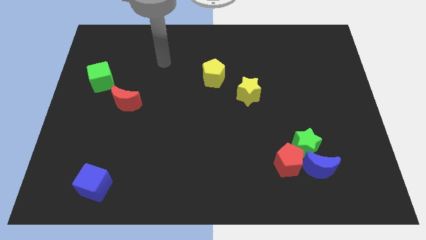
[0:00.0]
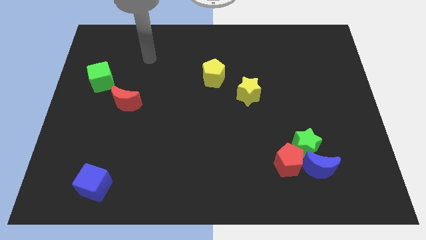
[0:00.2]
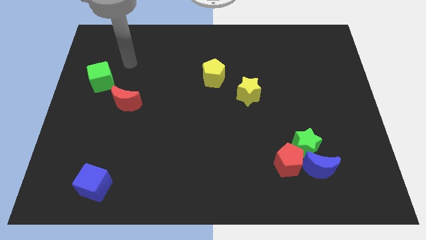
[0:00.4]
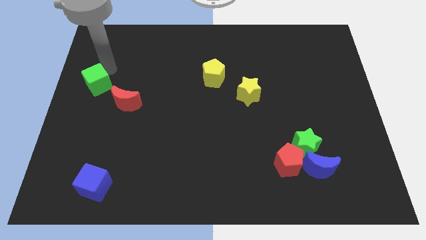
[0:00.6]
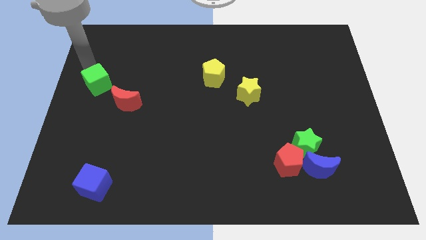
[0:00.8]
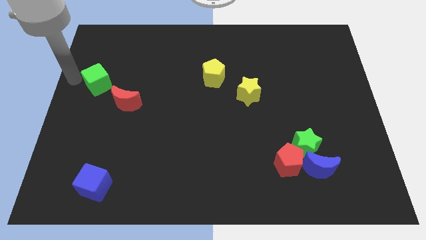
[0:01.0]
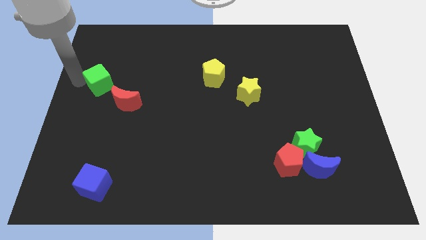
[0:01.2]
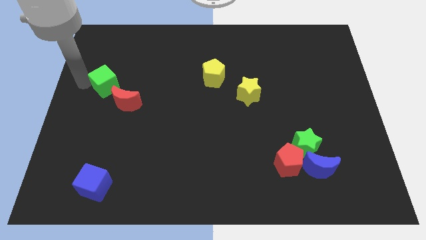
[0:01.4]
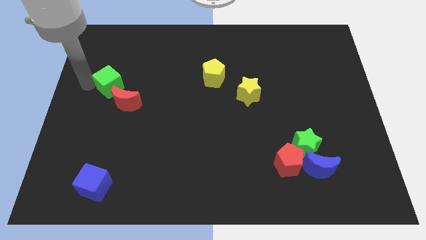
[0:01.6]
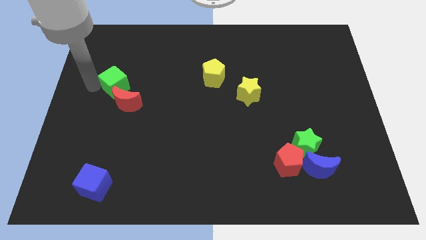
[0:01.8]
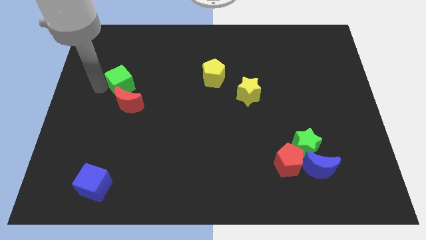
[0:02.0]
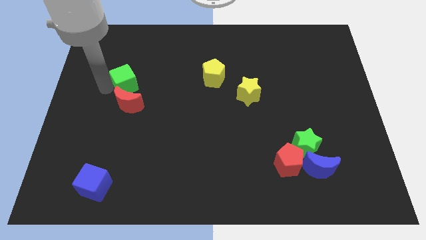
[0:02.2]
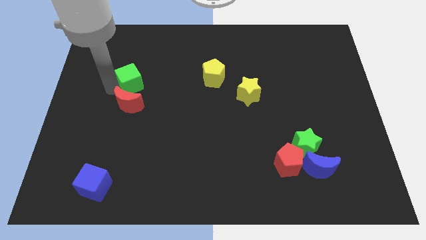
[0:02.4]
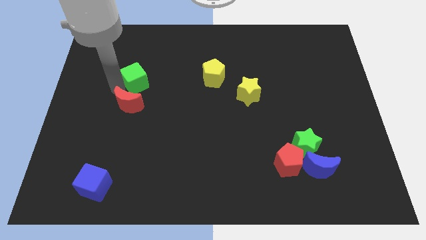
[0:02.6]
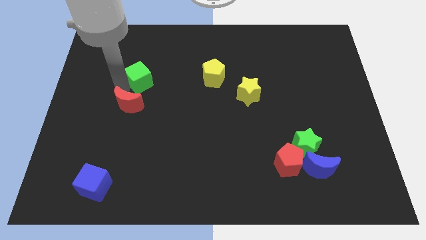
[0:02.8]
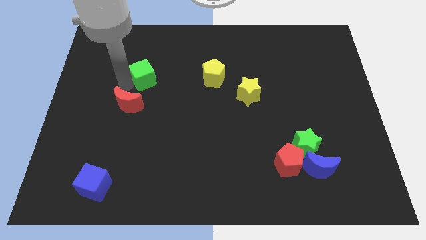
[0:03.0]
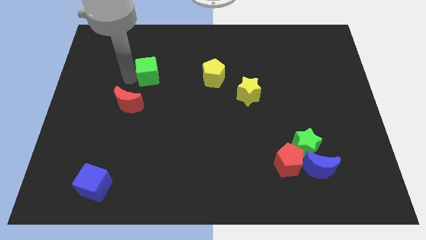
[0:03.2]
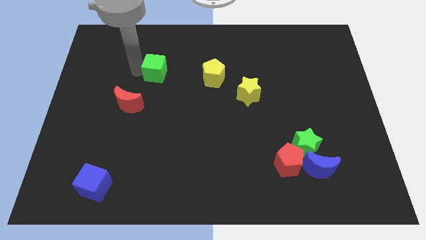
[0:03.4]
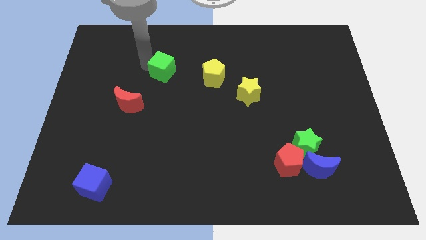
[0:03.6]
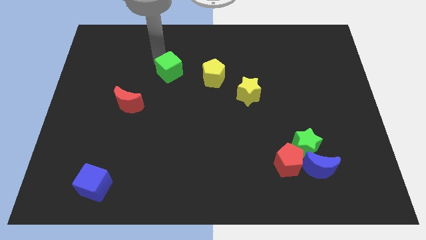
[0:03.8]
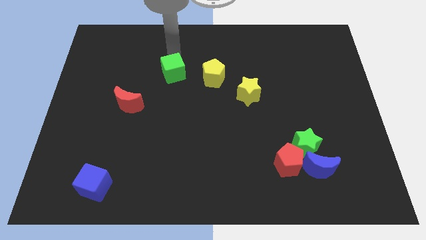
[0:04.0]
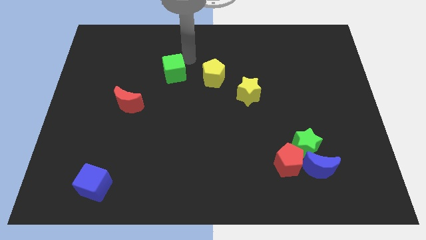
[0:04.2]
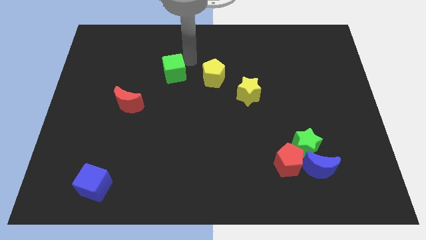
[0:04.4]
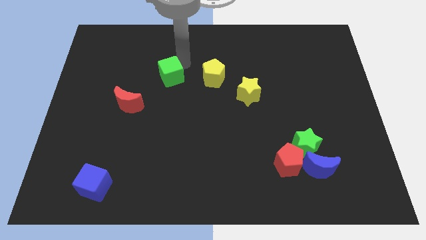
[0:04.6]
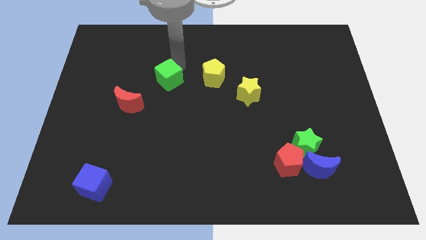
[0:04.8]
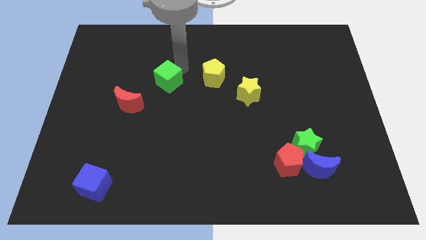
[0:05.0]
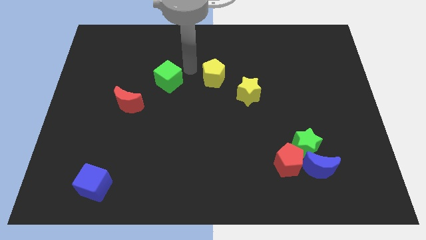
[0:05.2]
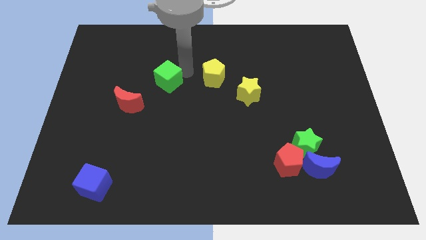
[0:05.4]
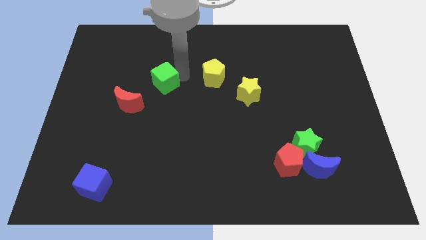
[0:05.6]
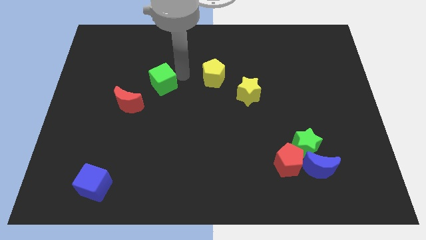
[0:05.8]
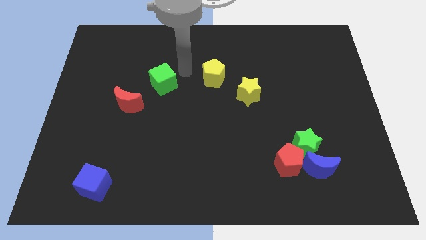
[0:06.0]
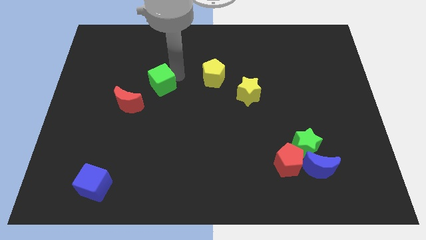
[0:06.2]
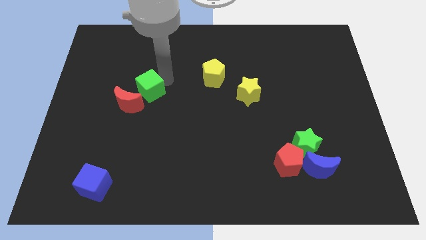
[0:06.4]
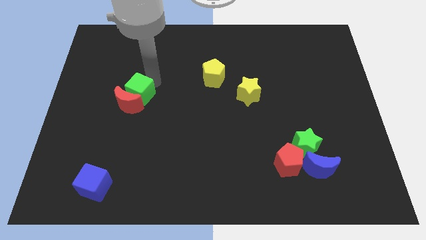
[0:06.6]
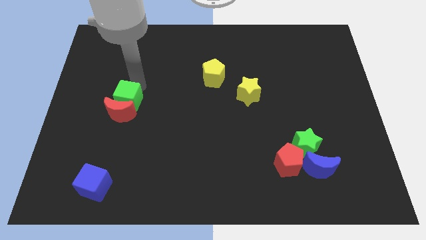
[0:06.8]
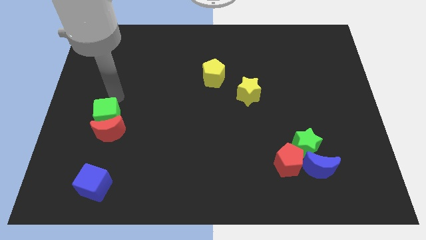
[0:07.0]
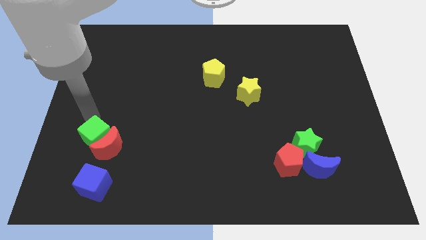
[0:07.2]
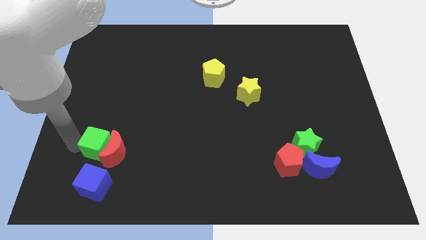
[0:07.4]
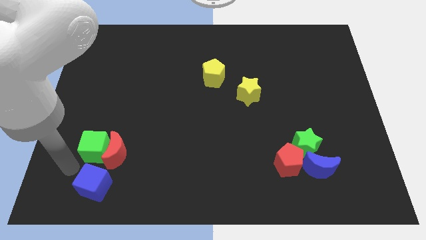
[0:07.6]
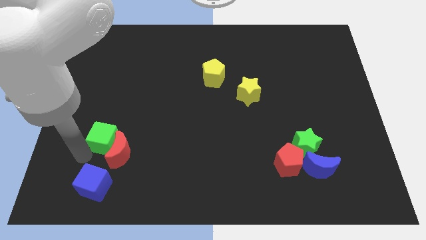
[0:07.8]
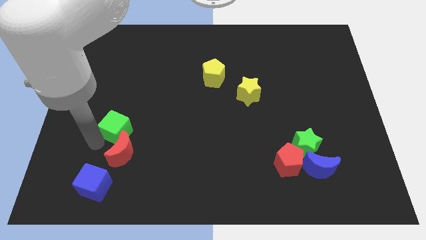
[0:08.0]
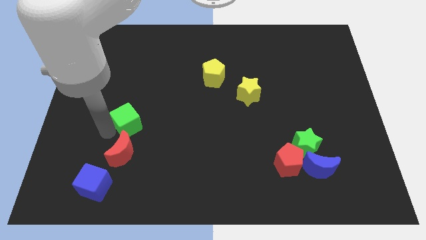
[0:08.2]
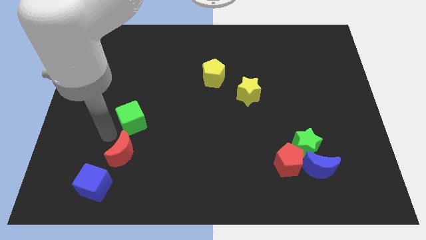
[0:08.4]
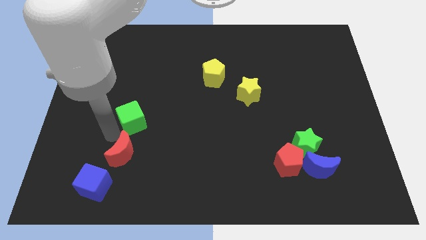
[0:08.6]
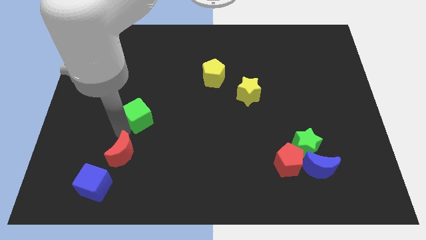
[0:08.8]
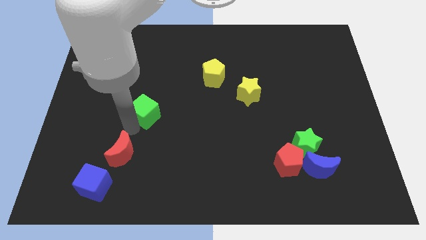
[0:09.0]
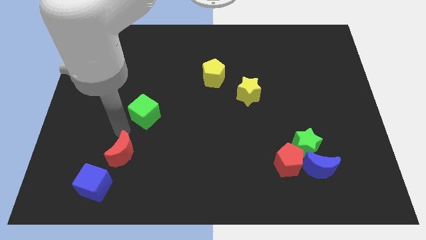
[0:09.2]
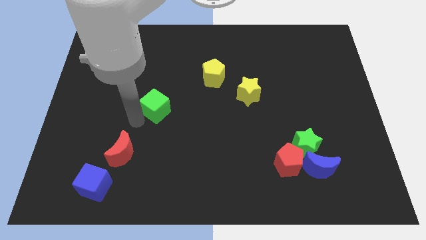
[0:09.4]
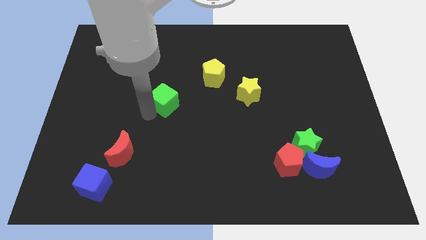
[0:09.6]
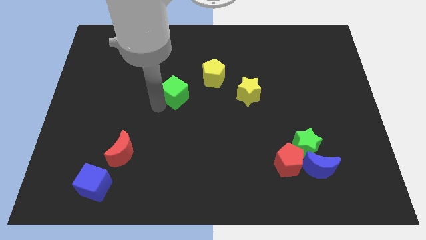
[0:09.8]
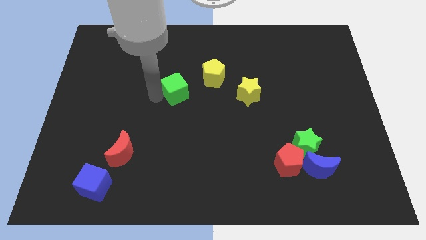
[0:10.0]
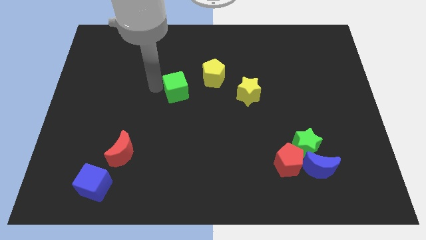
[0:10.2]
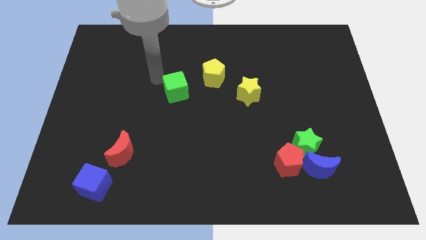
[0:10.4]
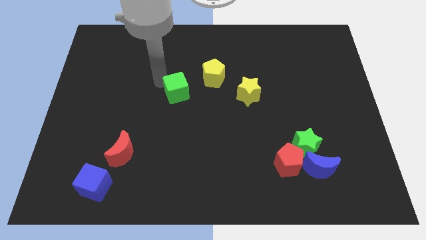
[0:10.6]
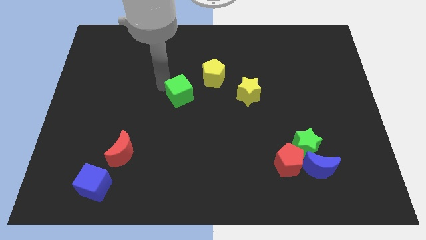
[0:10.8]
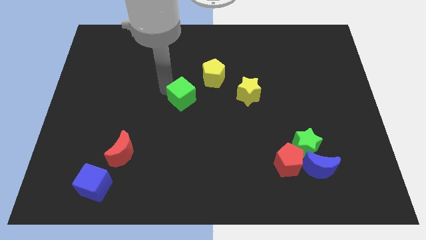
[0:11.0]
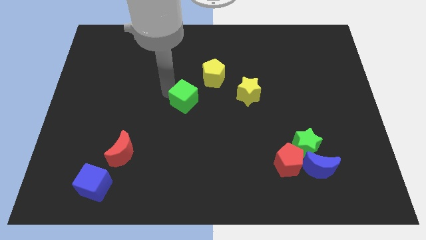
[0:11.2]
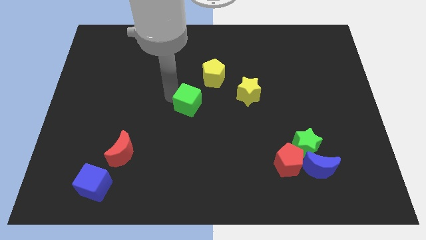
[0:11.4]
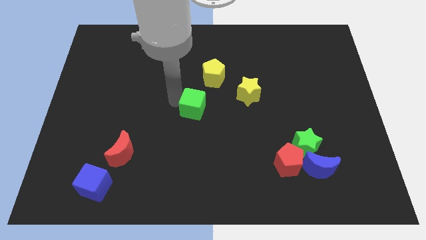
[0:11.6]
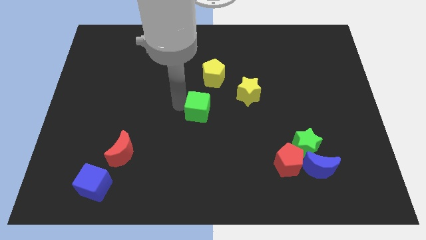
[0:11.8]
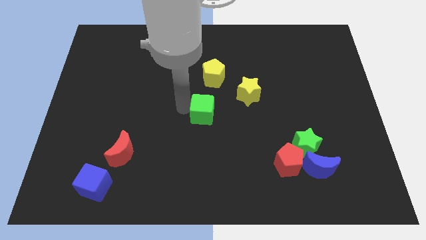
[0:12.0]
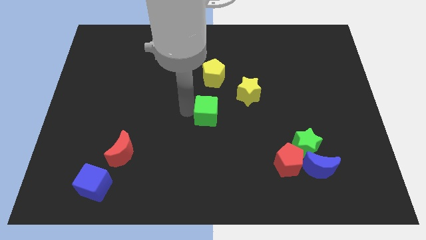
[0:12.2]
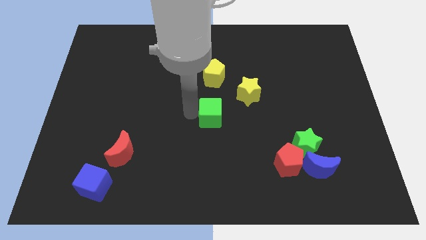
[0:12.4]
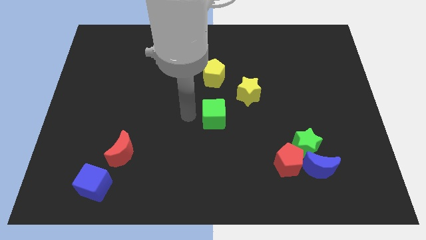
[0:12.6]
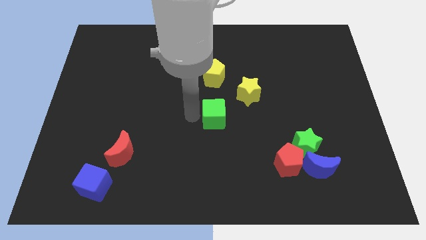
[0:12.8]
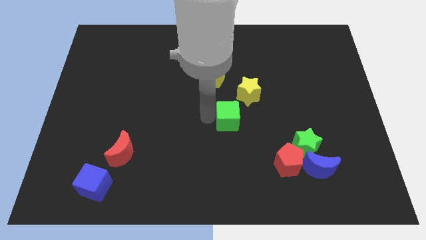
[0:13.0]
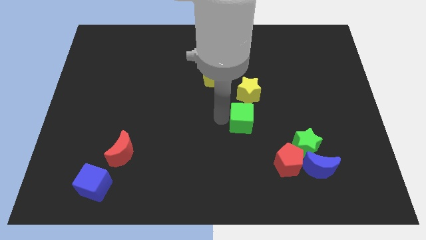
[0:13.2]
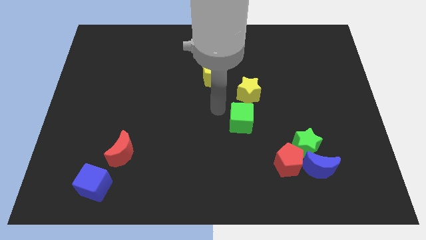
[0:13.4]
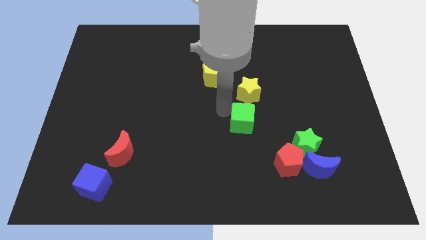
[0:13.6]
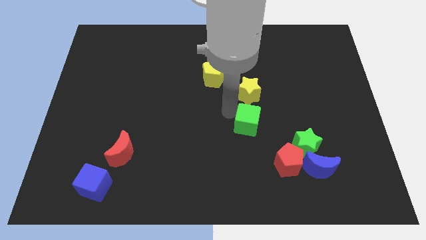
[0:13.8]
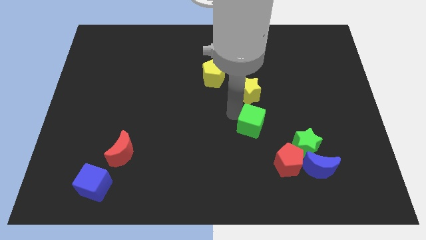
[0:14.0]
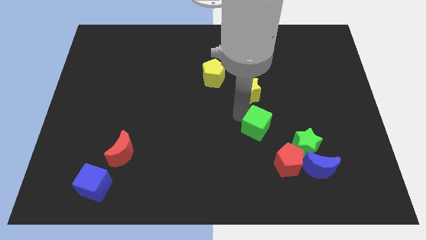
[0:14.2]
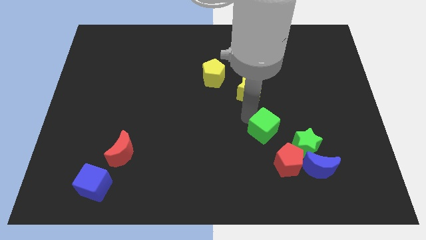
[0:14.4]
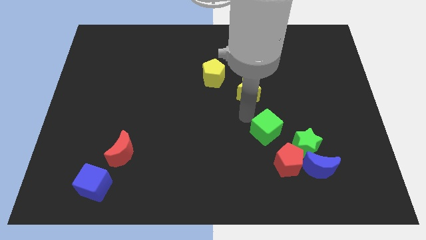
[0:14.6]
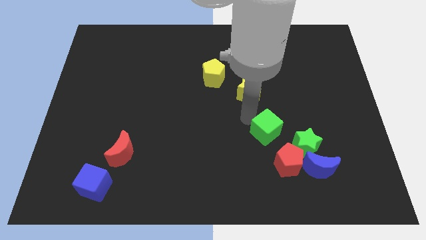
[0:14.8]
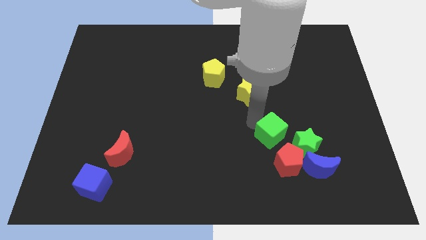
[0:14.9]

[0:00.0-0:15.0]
push the green cube diagonally up and to the left of the blue moon
